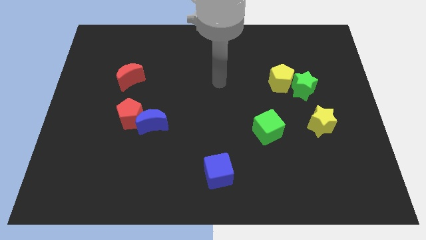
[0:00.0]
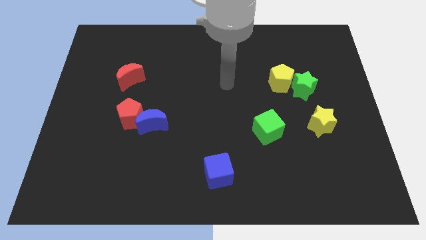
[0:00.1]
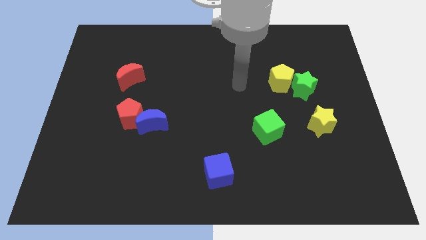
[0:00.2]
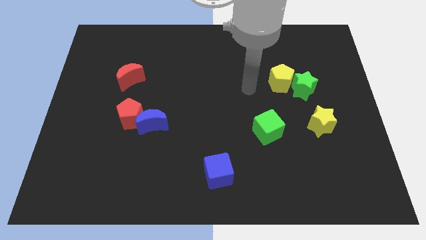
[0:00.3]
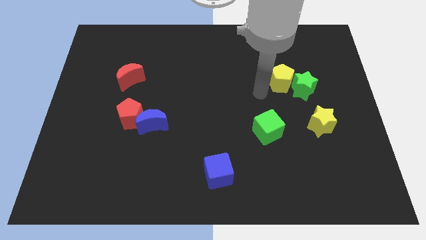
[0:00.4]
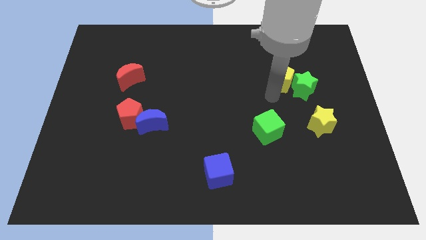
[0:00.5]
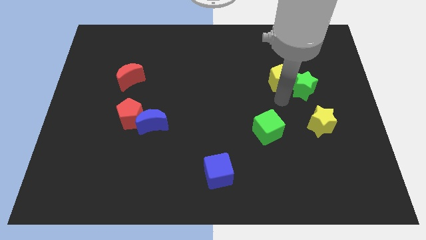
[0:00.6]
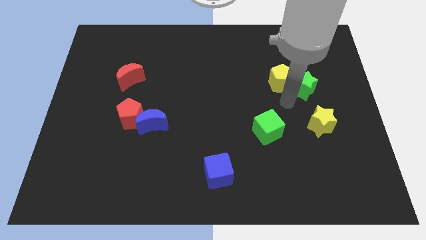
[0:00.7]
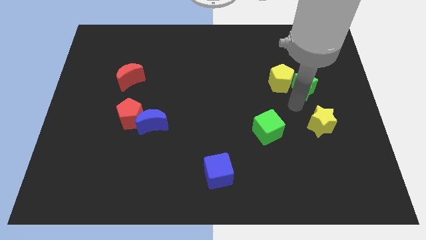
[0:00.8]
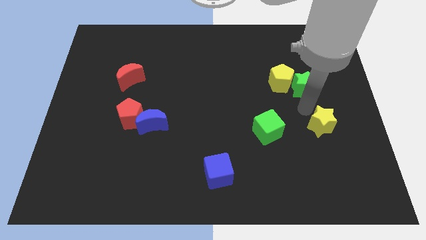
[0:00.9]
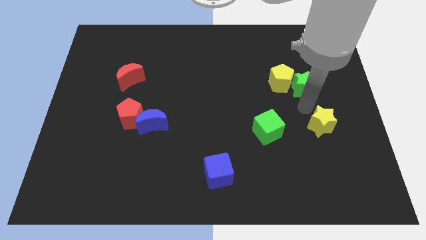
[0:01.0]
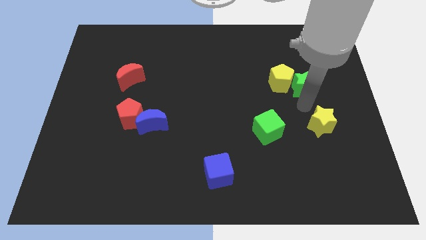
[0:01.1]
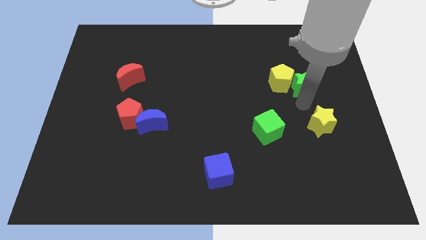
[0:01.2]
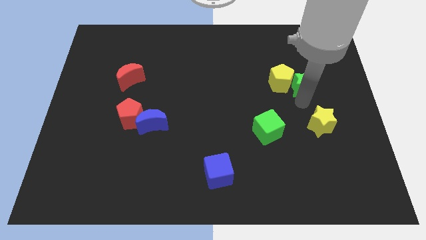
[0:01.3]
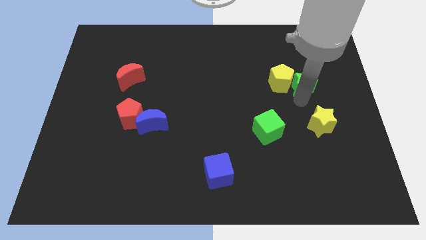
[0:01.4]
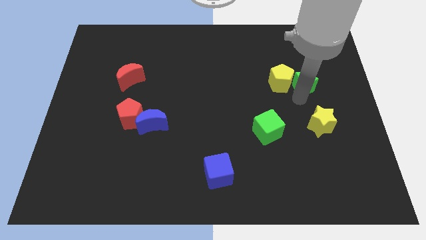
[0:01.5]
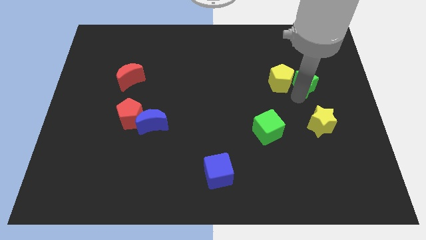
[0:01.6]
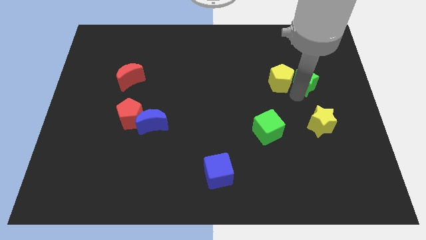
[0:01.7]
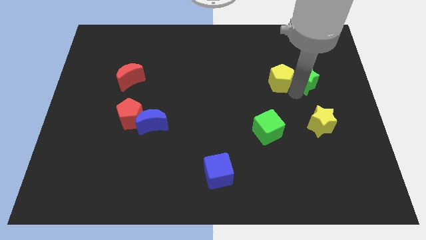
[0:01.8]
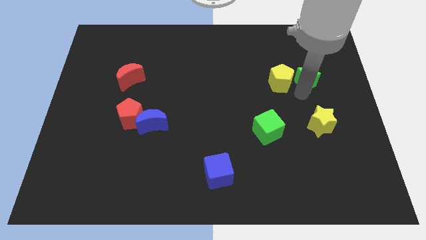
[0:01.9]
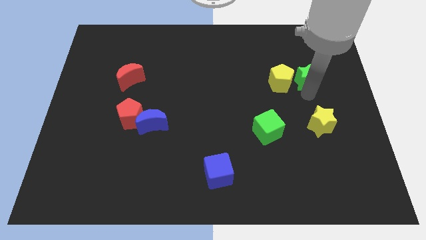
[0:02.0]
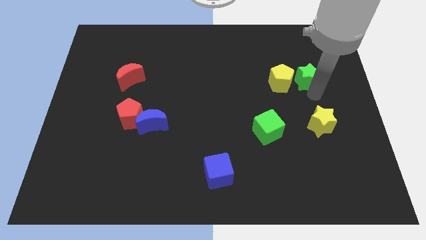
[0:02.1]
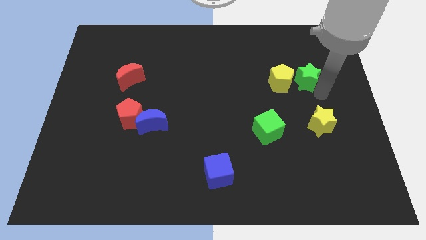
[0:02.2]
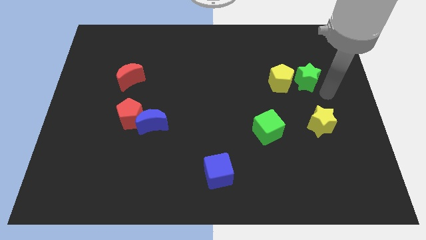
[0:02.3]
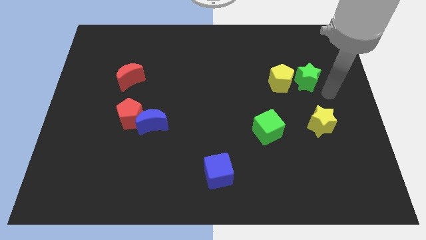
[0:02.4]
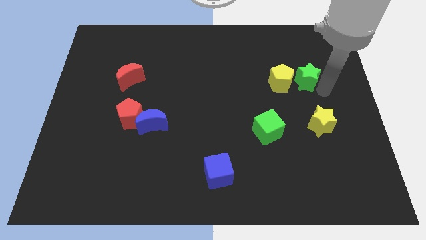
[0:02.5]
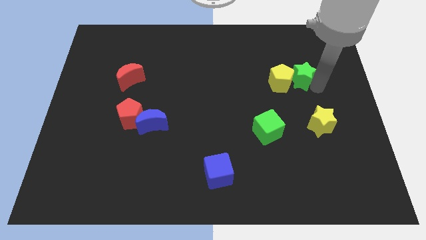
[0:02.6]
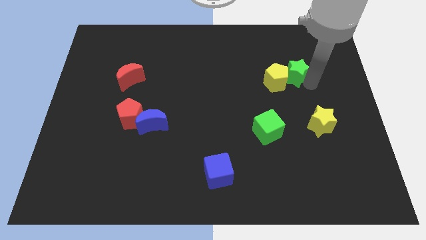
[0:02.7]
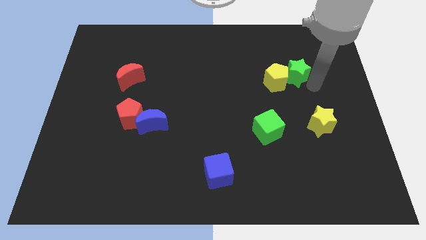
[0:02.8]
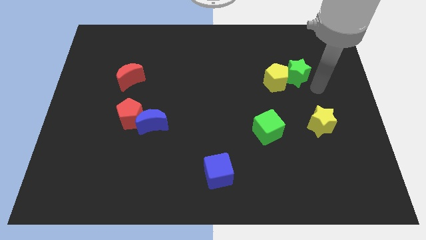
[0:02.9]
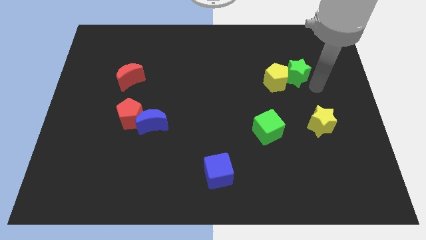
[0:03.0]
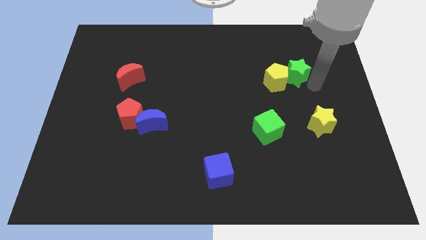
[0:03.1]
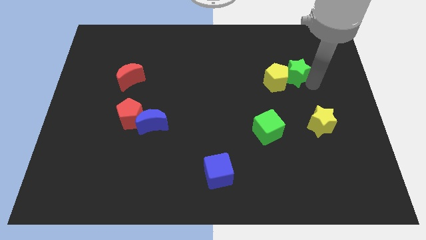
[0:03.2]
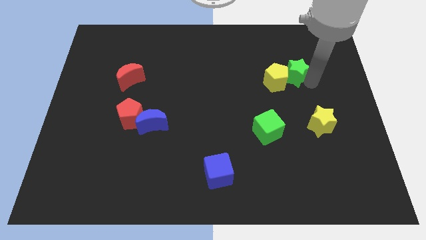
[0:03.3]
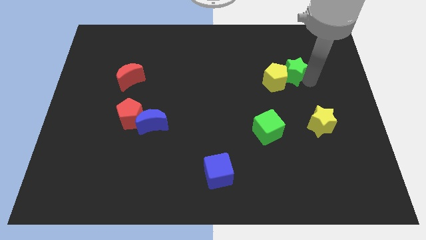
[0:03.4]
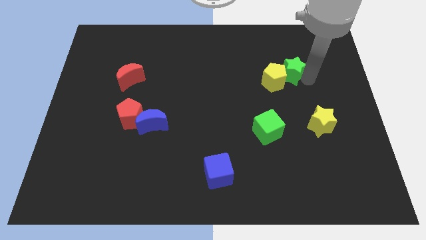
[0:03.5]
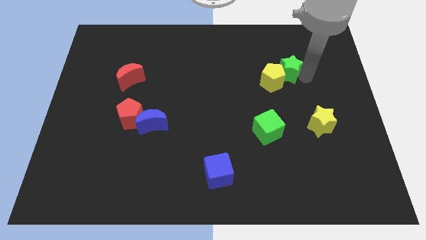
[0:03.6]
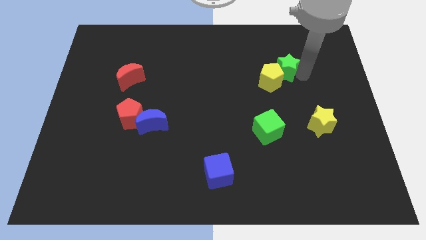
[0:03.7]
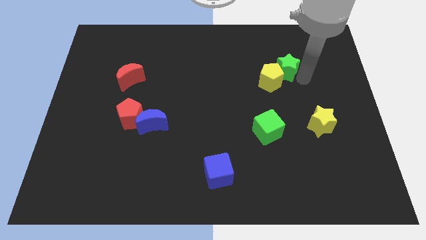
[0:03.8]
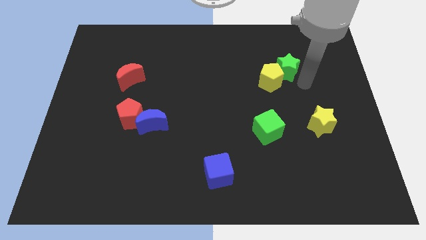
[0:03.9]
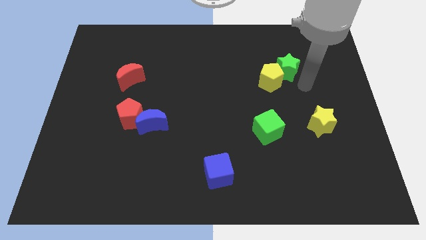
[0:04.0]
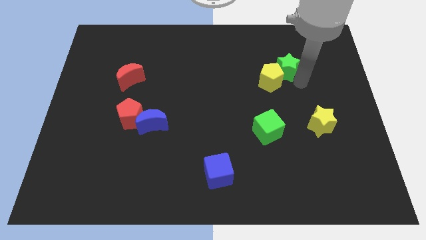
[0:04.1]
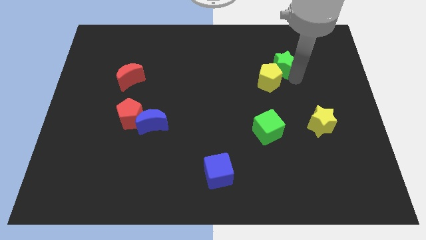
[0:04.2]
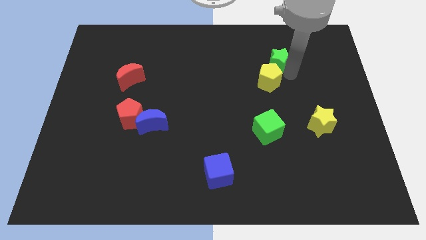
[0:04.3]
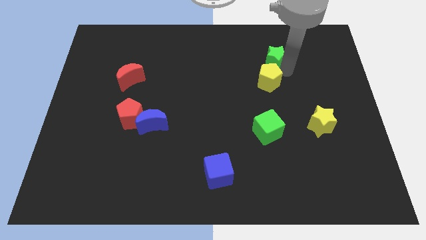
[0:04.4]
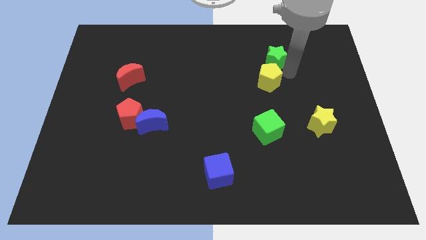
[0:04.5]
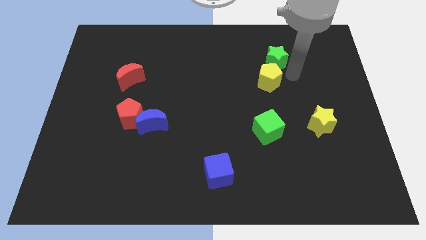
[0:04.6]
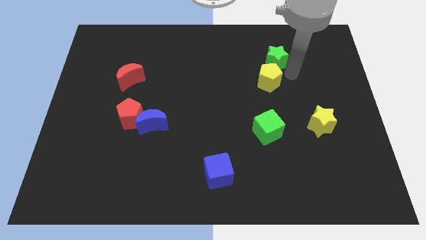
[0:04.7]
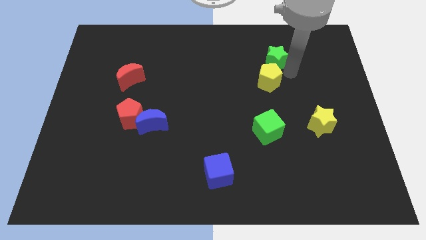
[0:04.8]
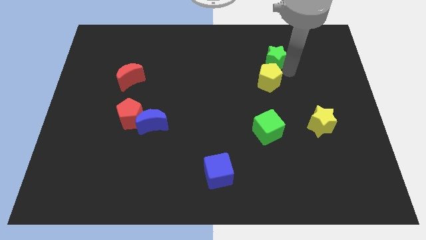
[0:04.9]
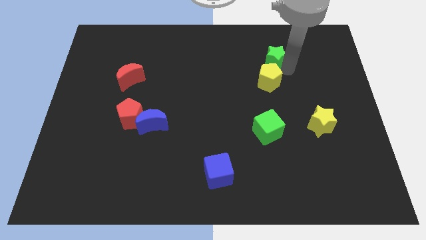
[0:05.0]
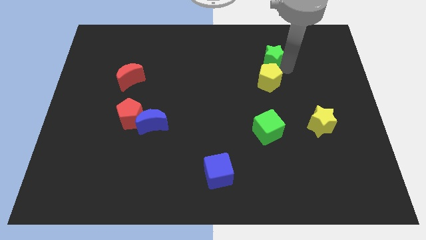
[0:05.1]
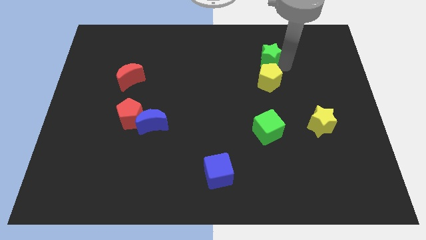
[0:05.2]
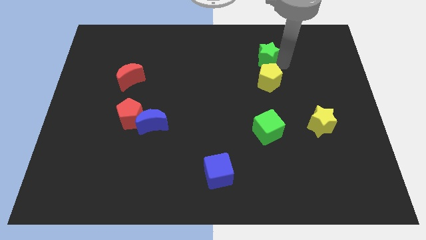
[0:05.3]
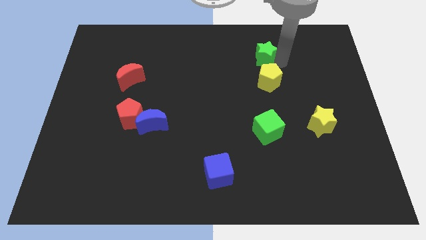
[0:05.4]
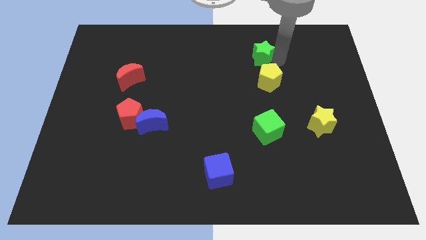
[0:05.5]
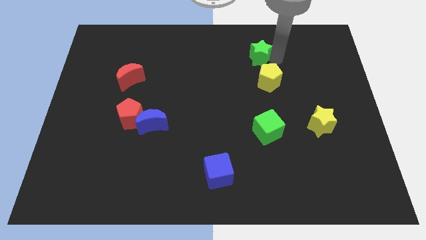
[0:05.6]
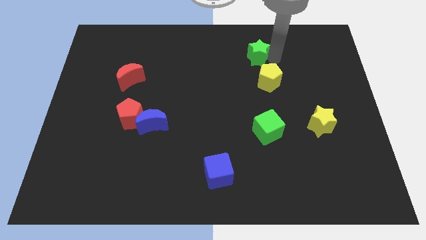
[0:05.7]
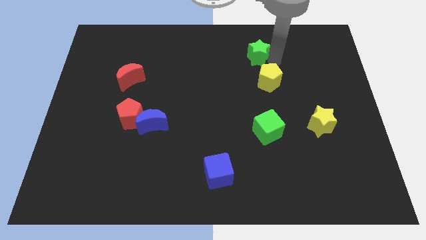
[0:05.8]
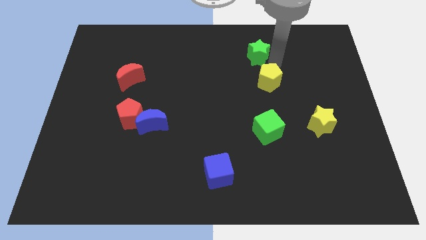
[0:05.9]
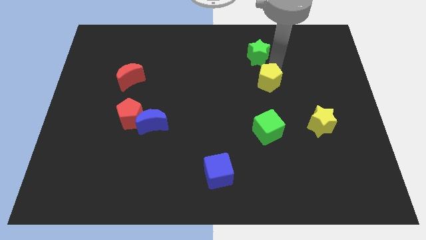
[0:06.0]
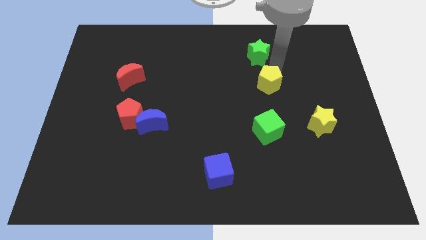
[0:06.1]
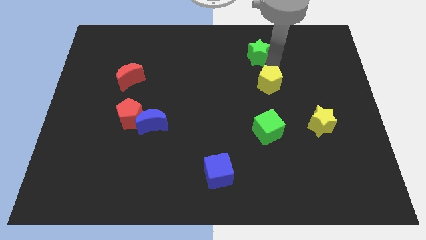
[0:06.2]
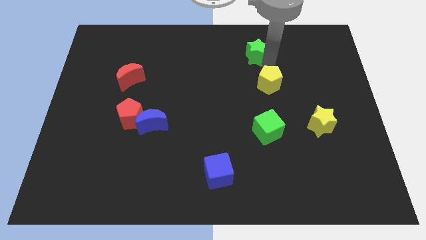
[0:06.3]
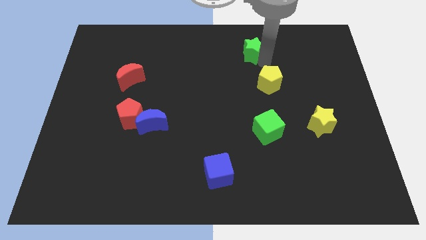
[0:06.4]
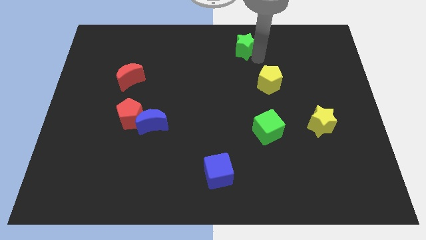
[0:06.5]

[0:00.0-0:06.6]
put the green star to the towards your base

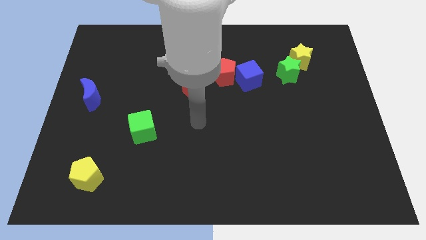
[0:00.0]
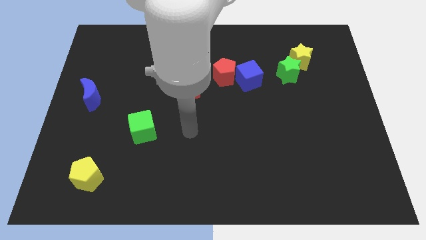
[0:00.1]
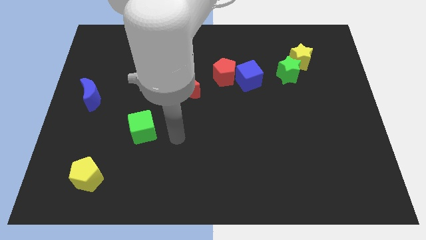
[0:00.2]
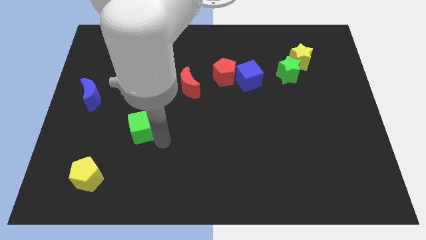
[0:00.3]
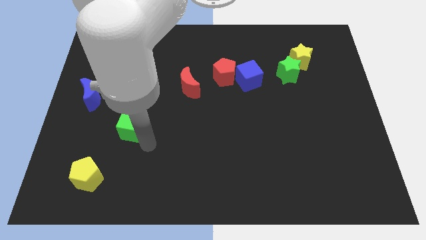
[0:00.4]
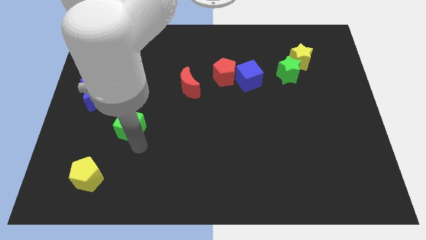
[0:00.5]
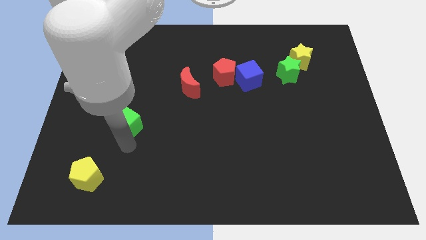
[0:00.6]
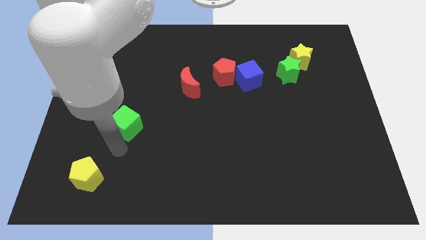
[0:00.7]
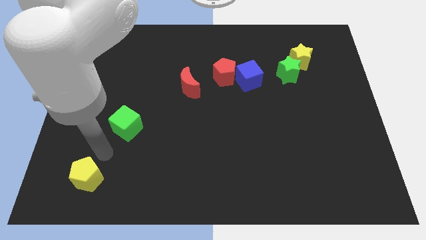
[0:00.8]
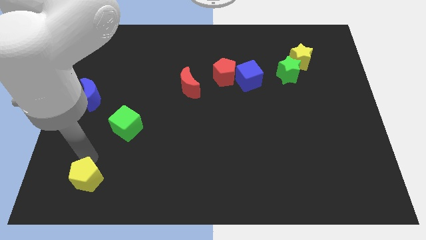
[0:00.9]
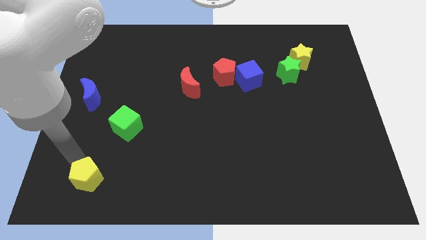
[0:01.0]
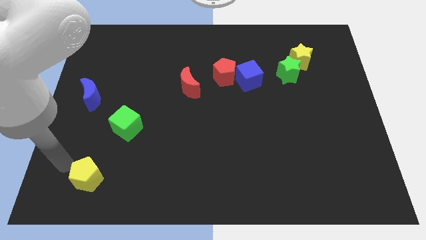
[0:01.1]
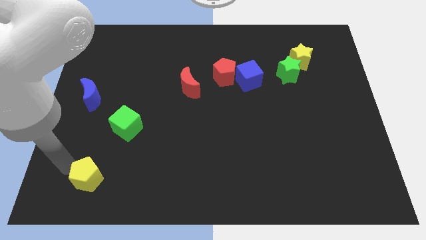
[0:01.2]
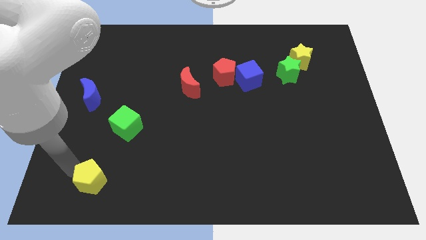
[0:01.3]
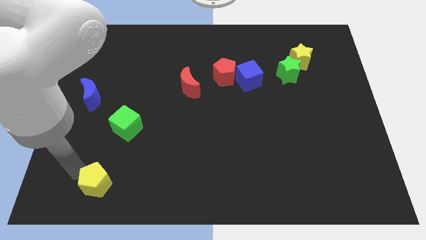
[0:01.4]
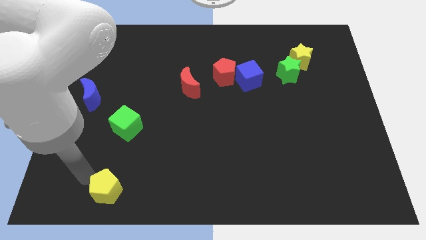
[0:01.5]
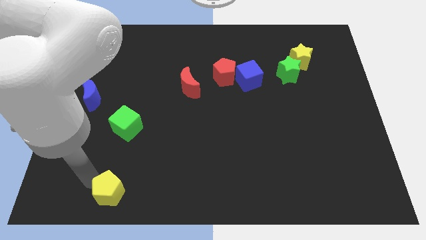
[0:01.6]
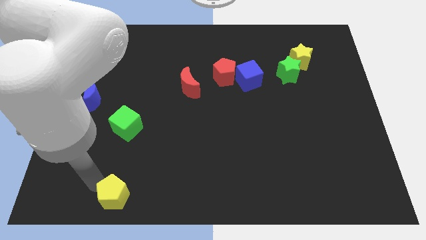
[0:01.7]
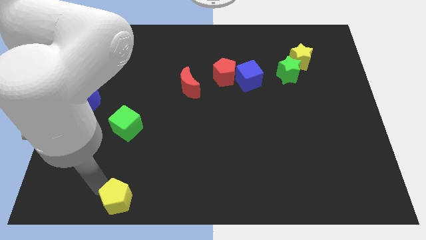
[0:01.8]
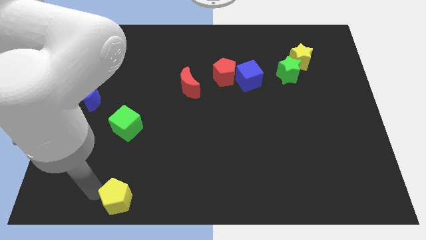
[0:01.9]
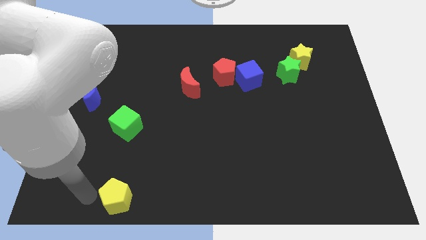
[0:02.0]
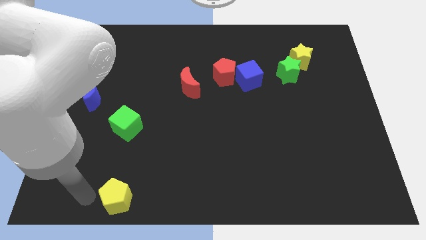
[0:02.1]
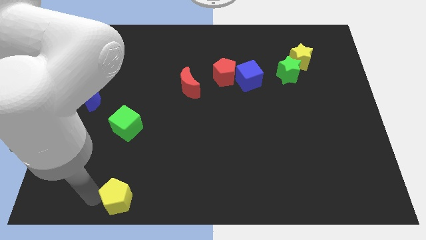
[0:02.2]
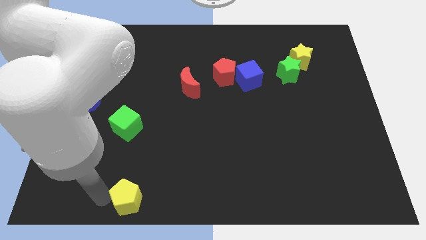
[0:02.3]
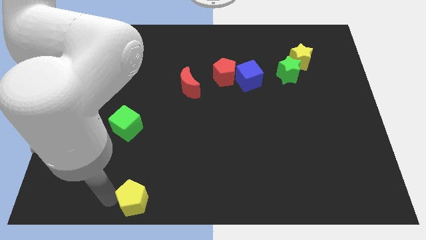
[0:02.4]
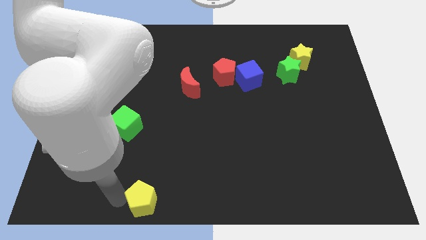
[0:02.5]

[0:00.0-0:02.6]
push the yellow pentagon to the bottom side
